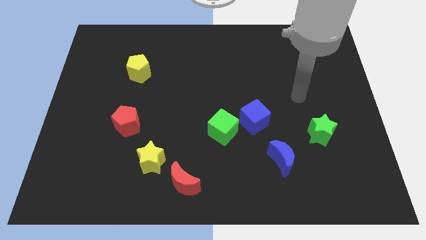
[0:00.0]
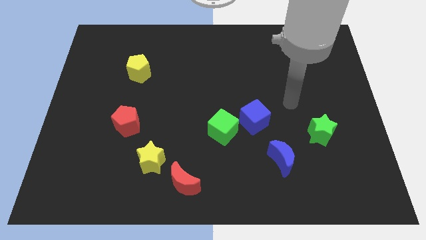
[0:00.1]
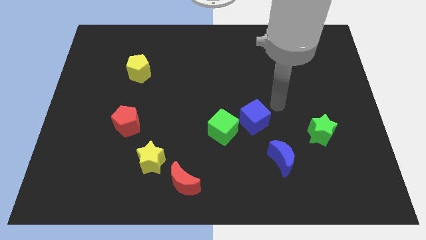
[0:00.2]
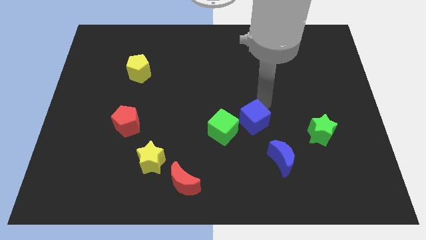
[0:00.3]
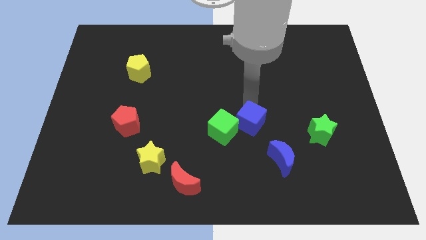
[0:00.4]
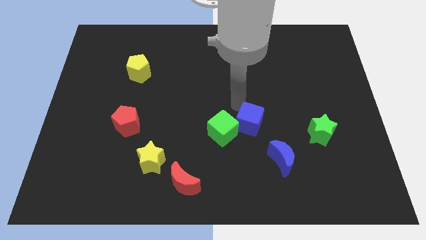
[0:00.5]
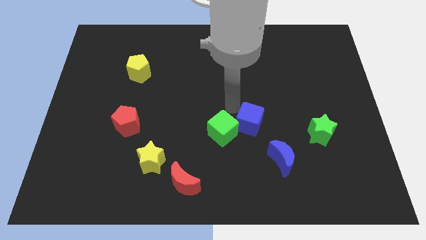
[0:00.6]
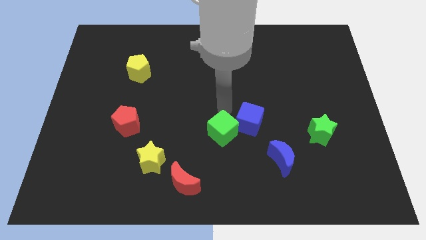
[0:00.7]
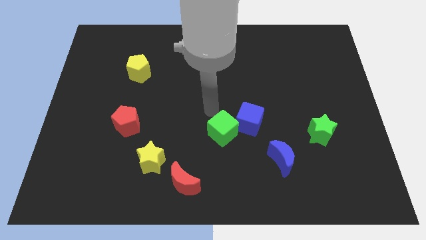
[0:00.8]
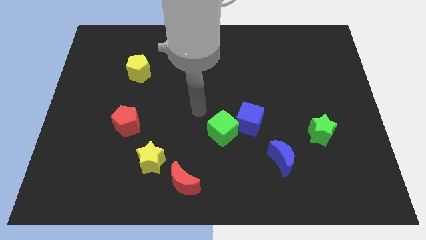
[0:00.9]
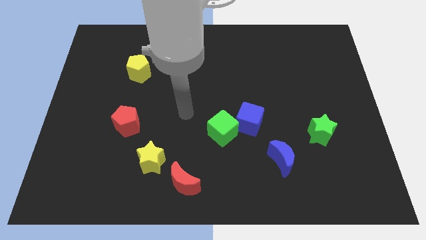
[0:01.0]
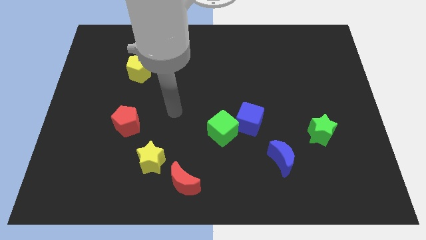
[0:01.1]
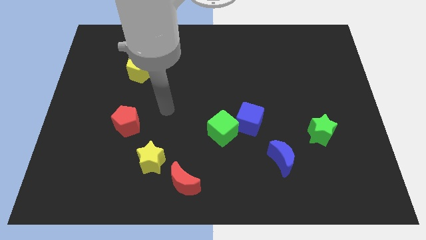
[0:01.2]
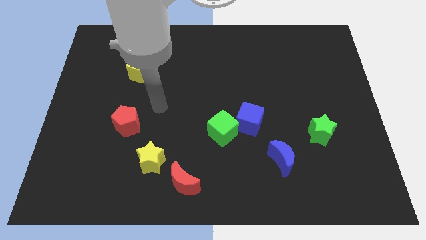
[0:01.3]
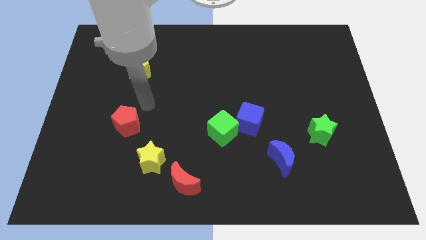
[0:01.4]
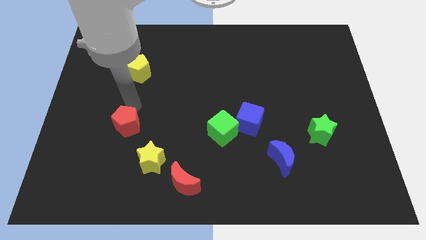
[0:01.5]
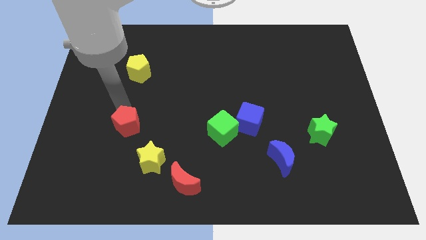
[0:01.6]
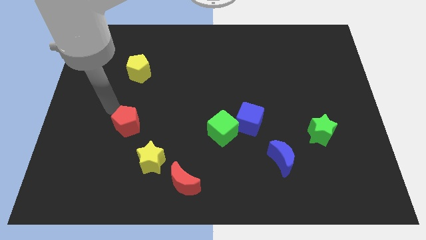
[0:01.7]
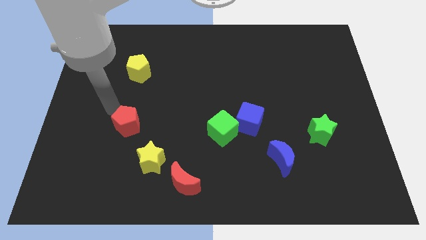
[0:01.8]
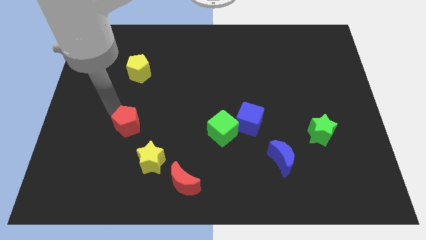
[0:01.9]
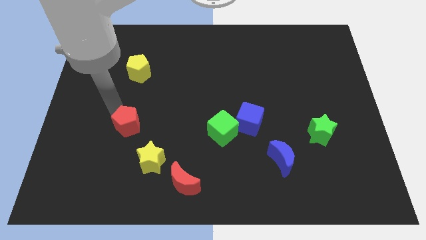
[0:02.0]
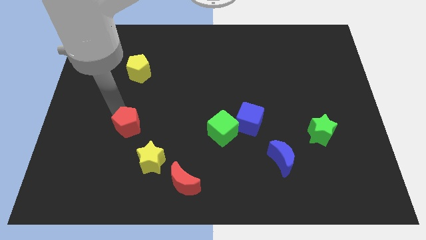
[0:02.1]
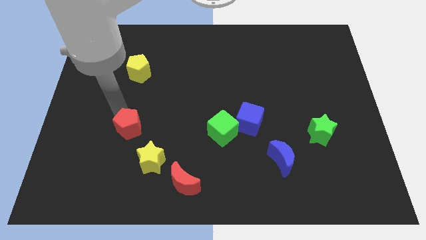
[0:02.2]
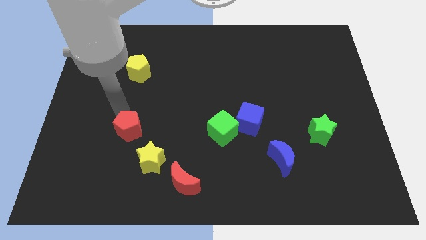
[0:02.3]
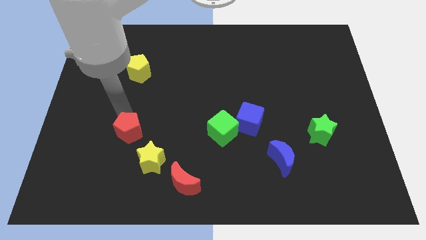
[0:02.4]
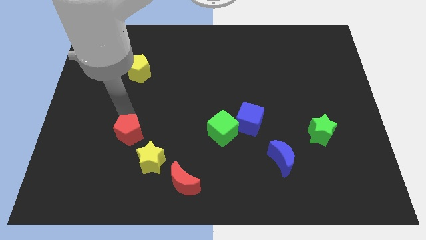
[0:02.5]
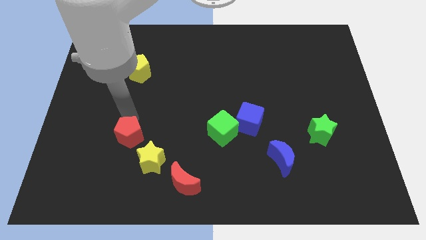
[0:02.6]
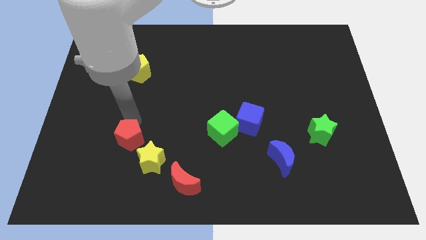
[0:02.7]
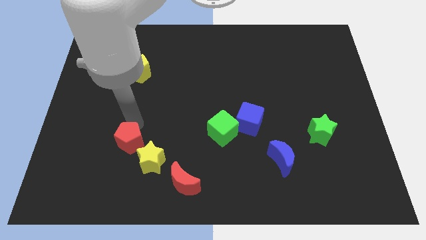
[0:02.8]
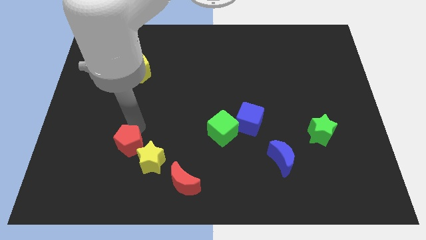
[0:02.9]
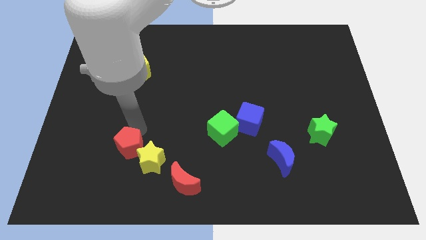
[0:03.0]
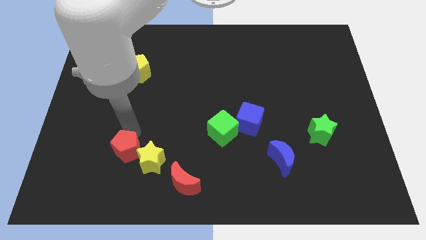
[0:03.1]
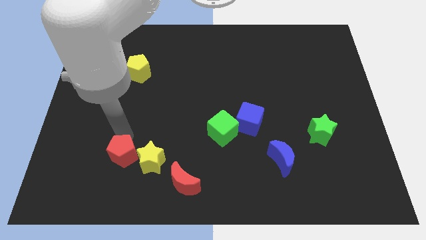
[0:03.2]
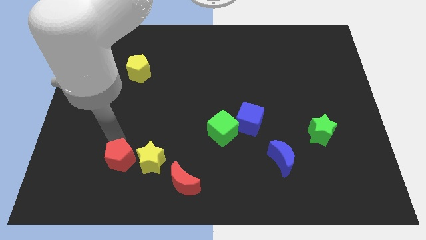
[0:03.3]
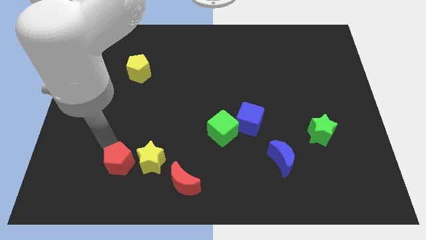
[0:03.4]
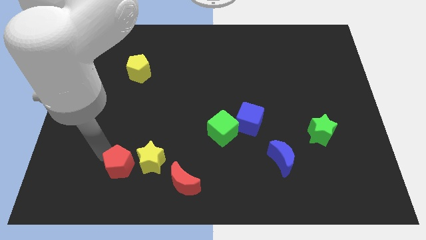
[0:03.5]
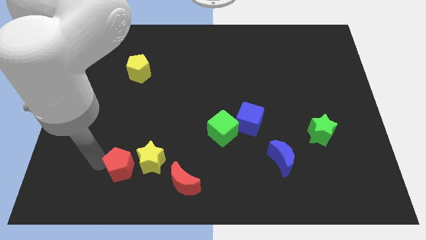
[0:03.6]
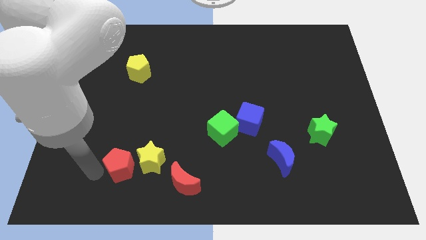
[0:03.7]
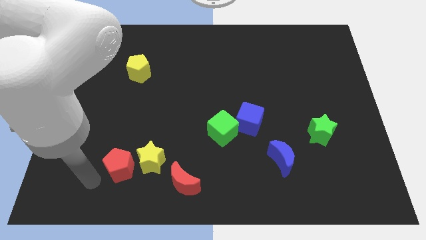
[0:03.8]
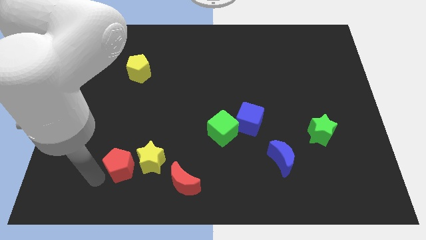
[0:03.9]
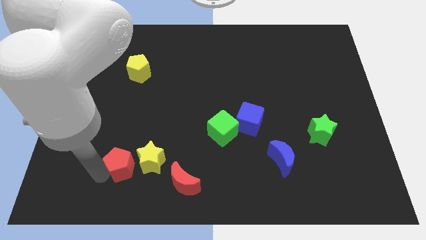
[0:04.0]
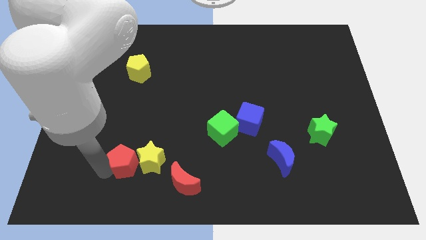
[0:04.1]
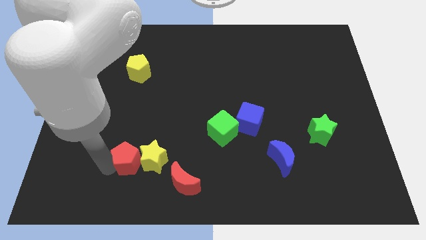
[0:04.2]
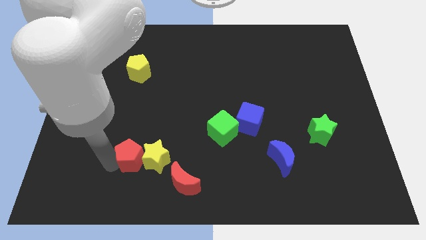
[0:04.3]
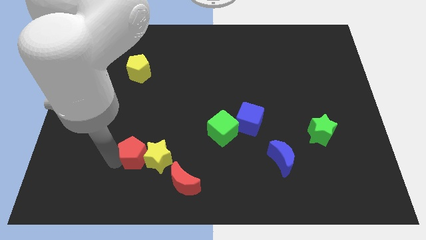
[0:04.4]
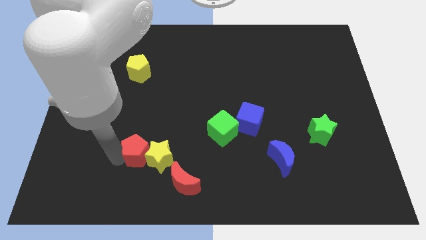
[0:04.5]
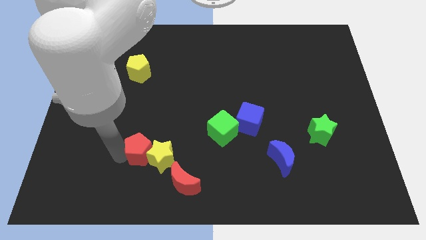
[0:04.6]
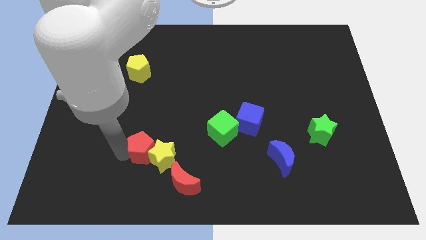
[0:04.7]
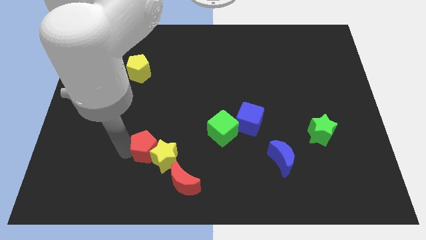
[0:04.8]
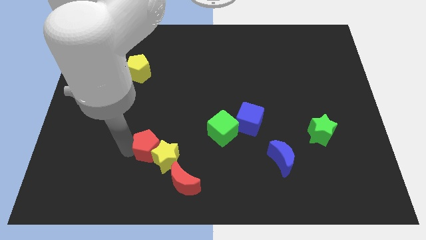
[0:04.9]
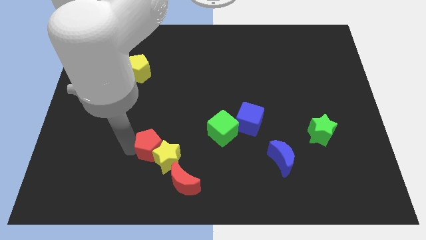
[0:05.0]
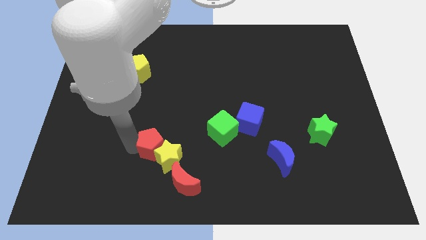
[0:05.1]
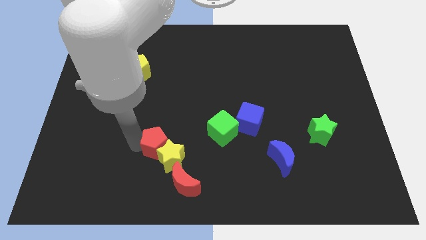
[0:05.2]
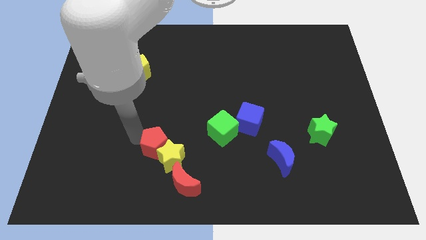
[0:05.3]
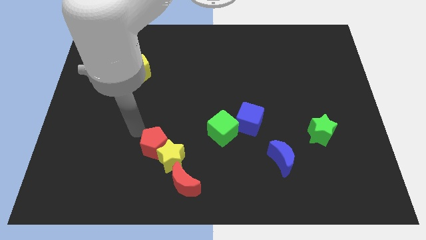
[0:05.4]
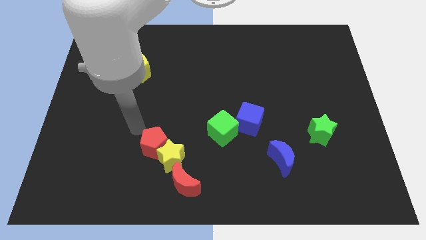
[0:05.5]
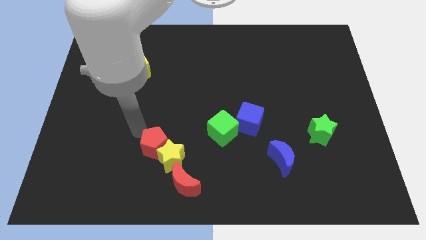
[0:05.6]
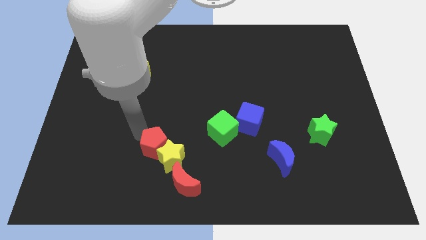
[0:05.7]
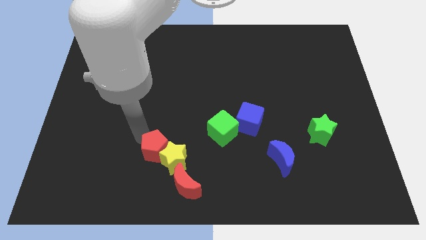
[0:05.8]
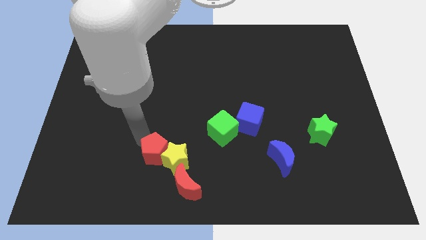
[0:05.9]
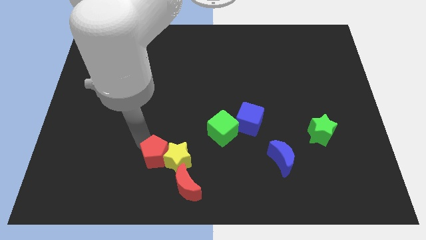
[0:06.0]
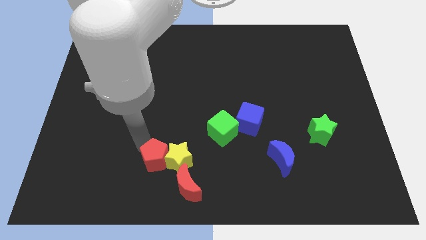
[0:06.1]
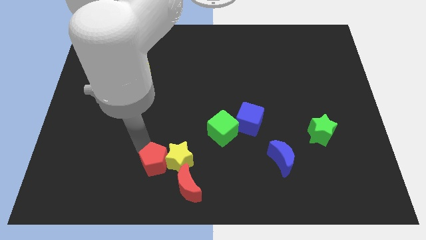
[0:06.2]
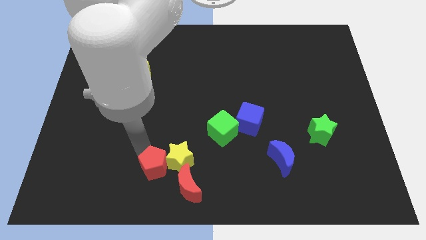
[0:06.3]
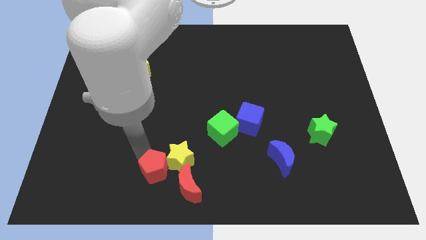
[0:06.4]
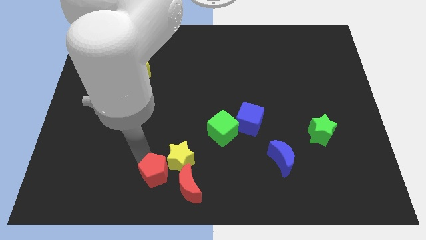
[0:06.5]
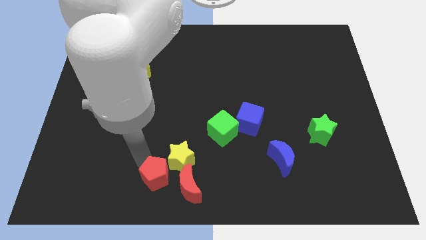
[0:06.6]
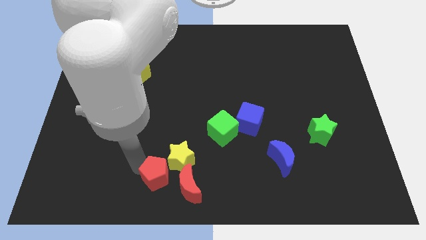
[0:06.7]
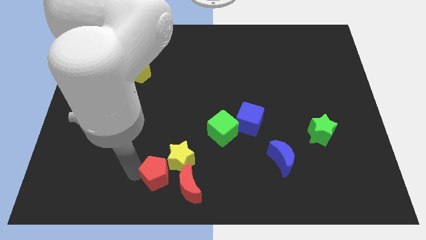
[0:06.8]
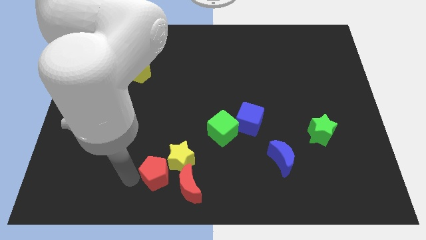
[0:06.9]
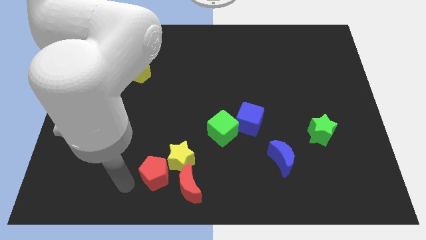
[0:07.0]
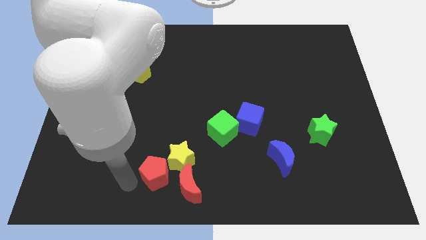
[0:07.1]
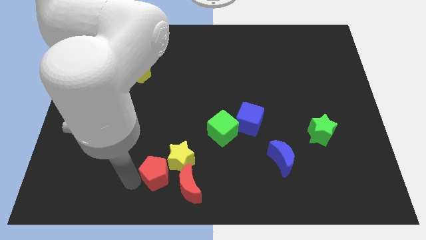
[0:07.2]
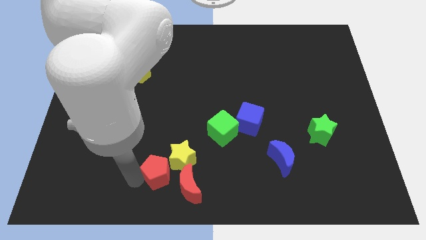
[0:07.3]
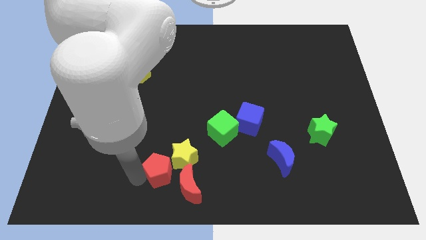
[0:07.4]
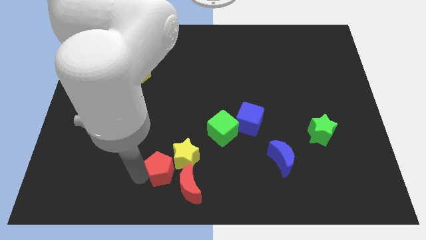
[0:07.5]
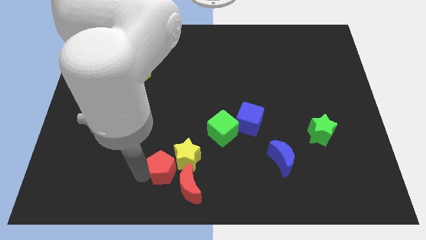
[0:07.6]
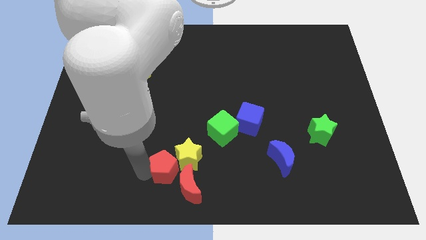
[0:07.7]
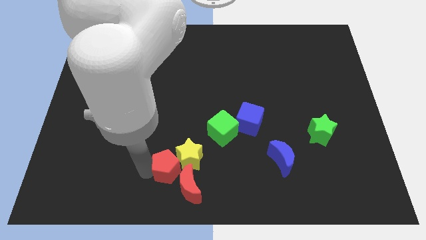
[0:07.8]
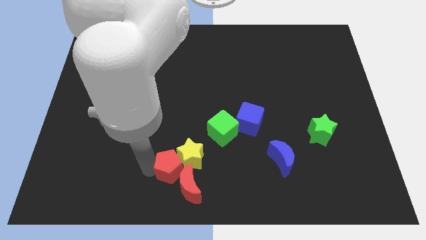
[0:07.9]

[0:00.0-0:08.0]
push the red pentagon close to the red moon
